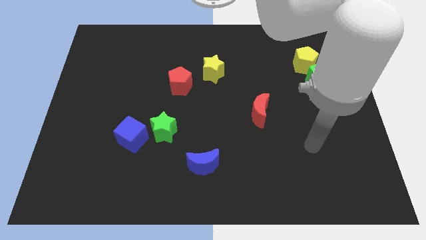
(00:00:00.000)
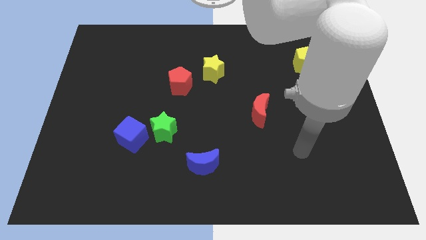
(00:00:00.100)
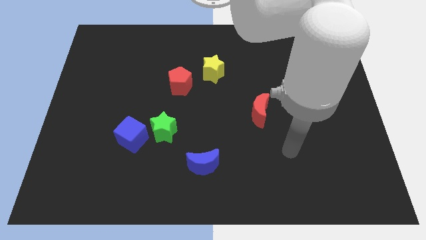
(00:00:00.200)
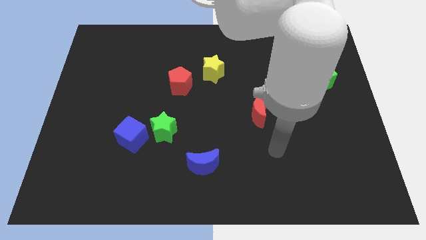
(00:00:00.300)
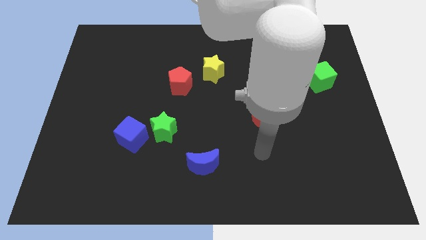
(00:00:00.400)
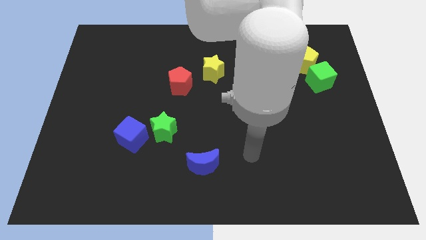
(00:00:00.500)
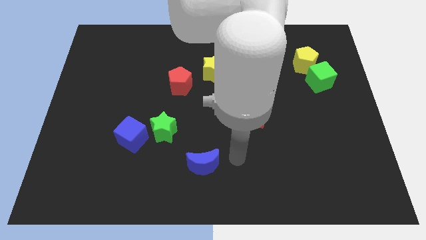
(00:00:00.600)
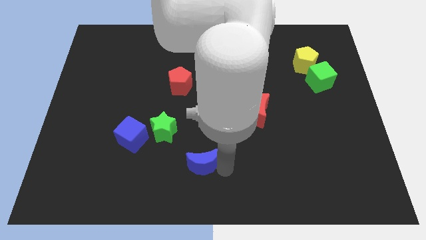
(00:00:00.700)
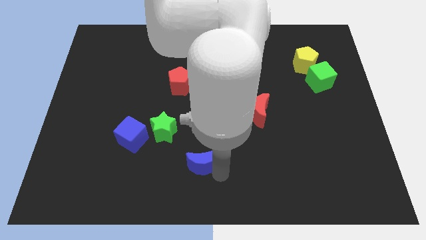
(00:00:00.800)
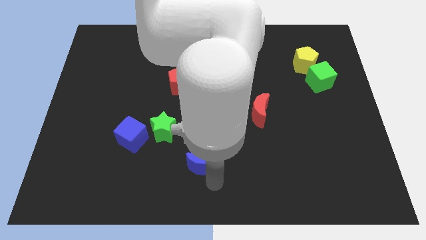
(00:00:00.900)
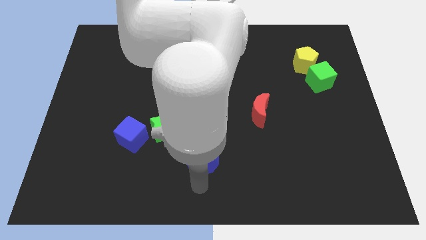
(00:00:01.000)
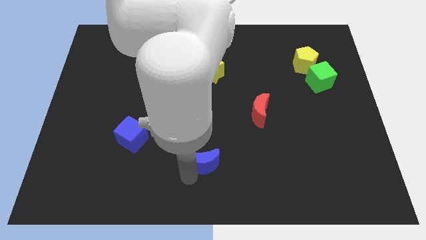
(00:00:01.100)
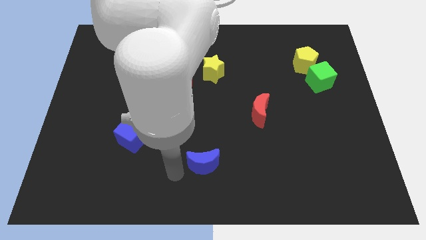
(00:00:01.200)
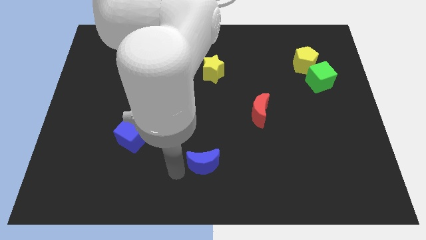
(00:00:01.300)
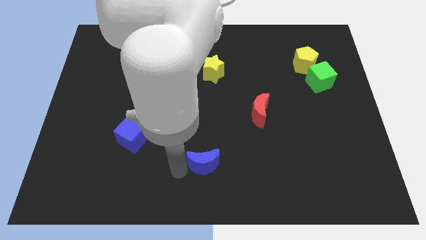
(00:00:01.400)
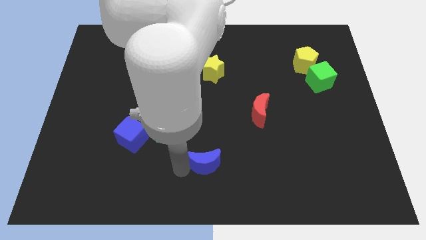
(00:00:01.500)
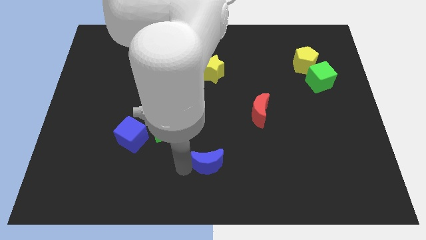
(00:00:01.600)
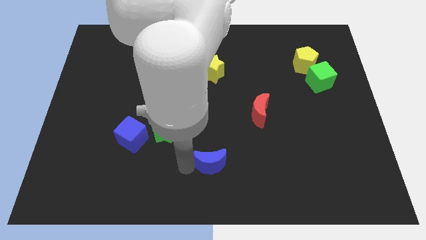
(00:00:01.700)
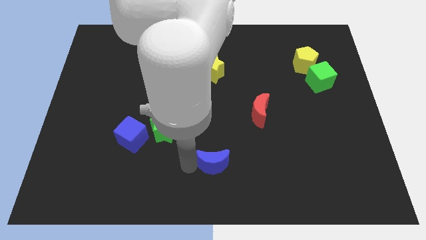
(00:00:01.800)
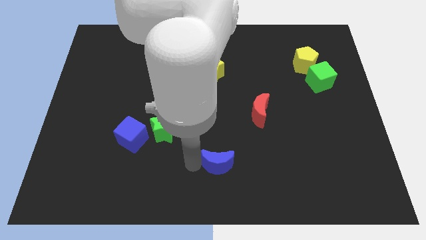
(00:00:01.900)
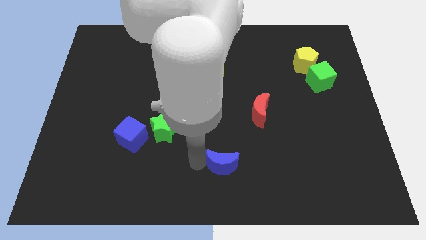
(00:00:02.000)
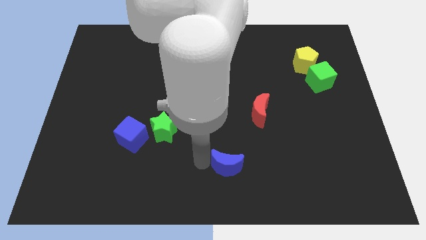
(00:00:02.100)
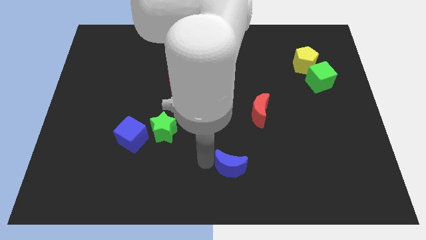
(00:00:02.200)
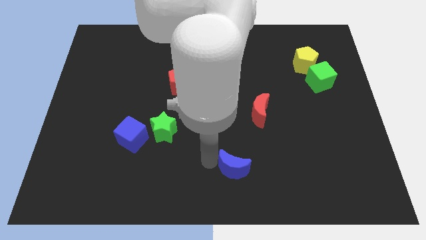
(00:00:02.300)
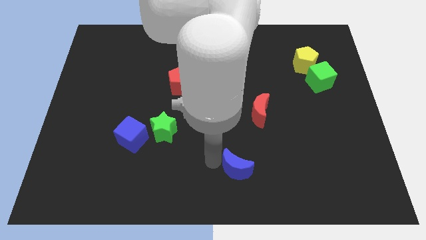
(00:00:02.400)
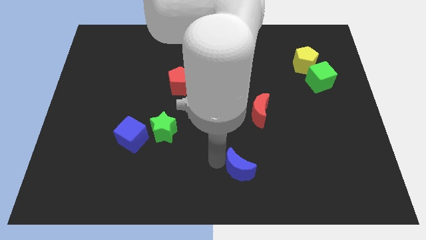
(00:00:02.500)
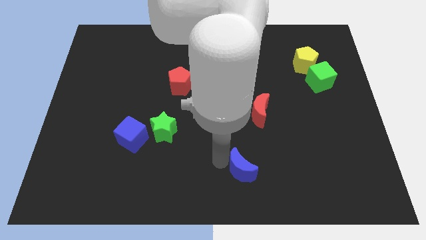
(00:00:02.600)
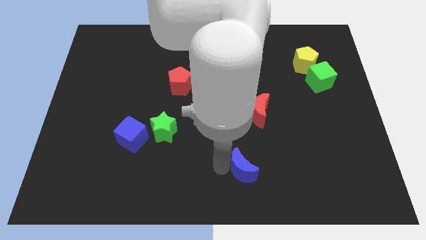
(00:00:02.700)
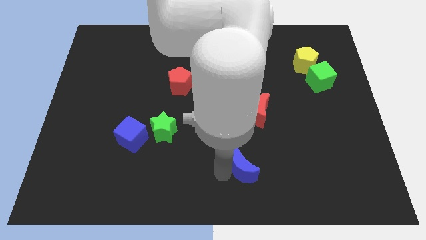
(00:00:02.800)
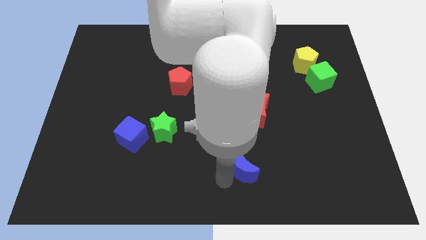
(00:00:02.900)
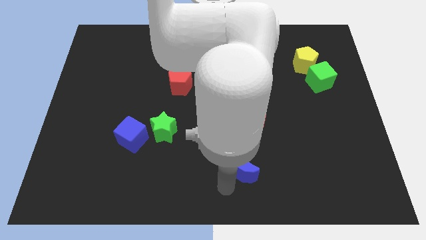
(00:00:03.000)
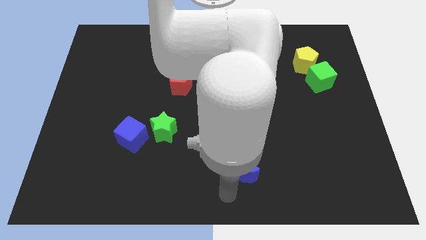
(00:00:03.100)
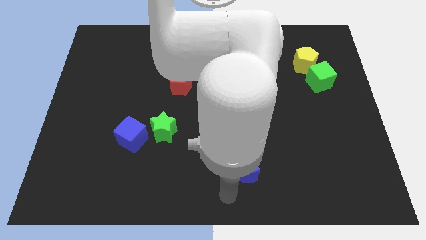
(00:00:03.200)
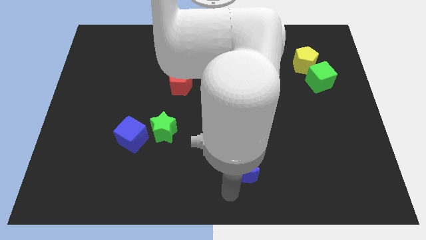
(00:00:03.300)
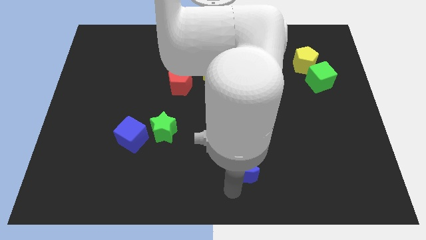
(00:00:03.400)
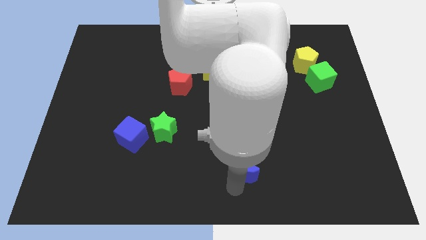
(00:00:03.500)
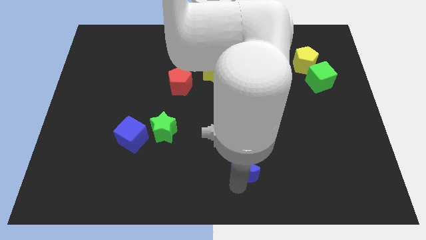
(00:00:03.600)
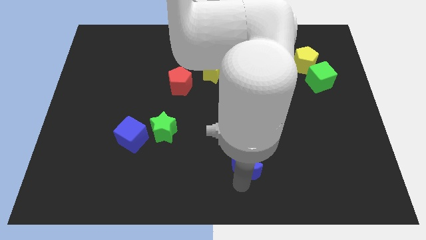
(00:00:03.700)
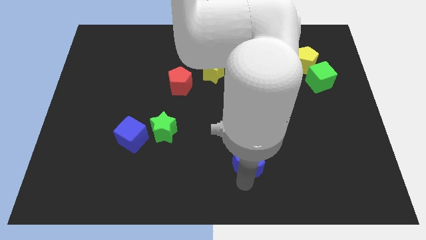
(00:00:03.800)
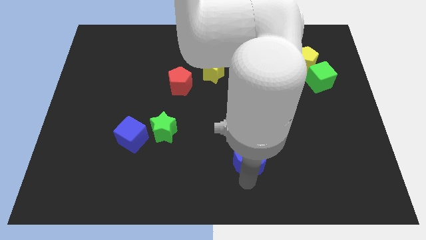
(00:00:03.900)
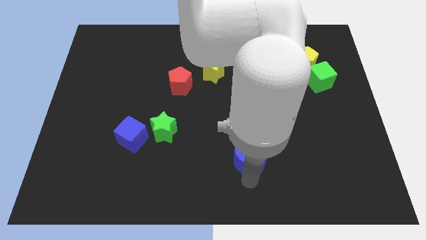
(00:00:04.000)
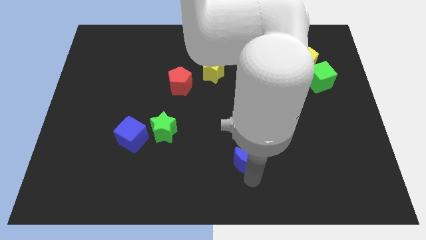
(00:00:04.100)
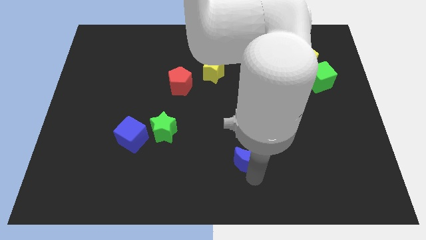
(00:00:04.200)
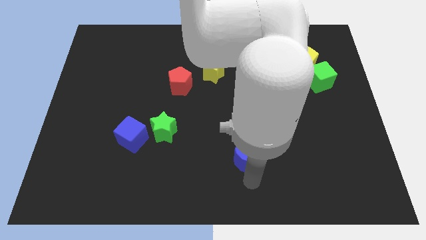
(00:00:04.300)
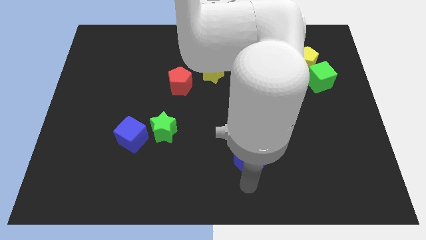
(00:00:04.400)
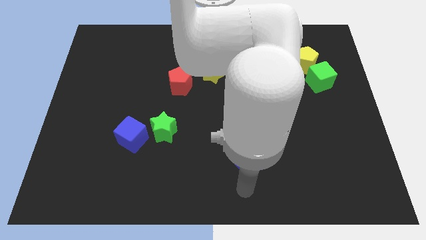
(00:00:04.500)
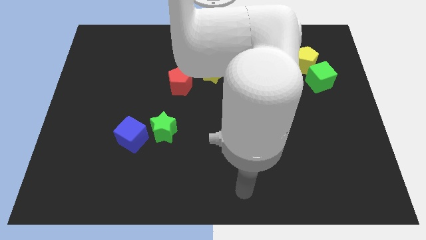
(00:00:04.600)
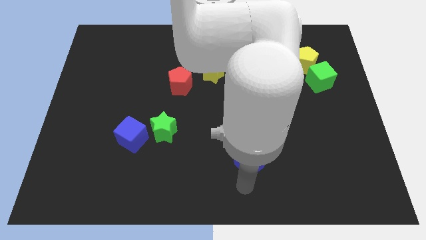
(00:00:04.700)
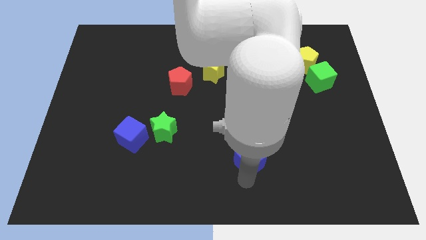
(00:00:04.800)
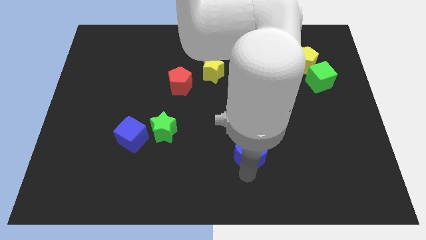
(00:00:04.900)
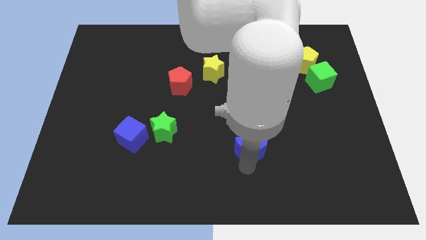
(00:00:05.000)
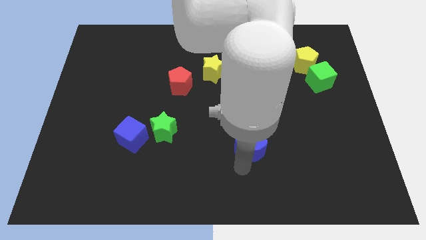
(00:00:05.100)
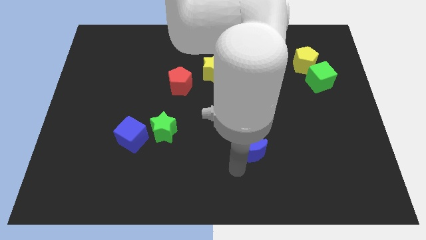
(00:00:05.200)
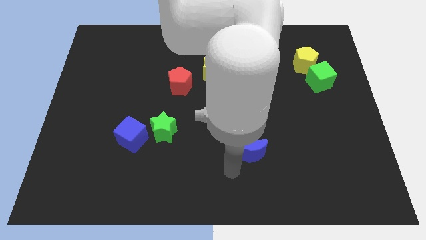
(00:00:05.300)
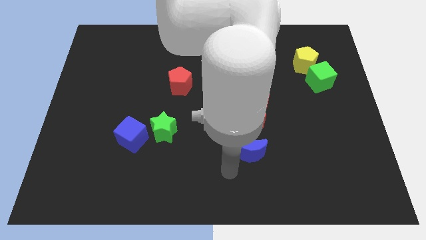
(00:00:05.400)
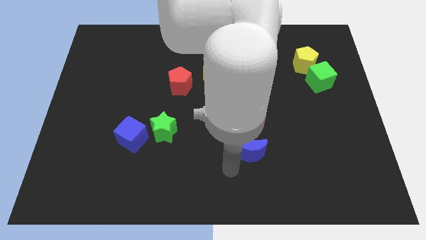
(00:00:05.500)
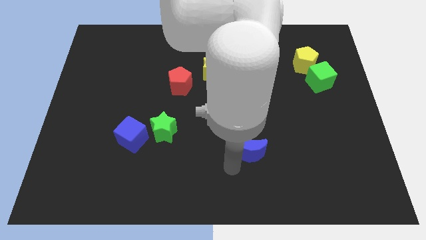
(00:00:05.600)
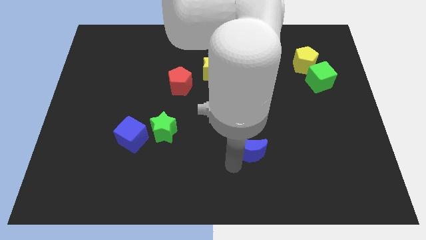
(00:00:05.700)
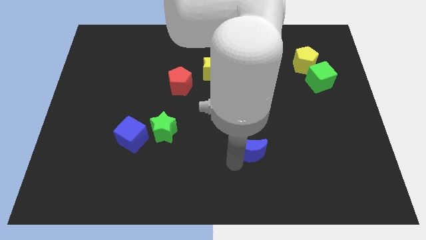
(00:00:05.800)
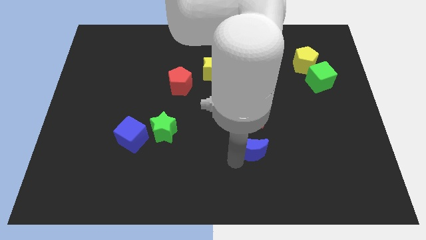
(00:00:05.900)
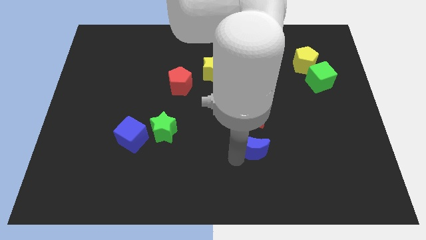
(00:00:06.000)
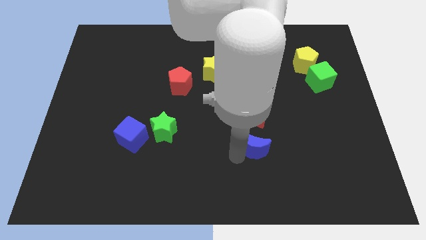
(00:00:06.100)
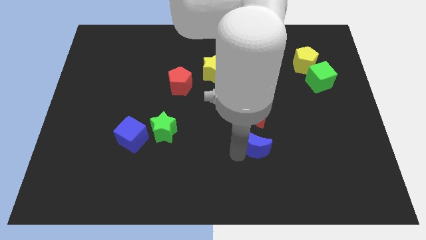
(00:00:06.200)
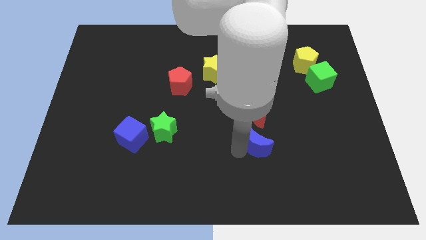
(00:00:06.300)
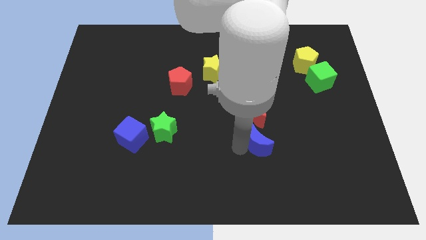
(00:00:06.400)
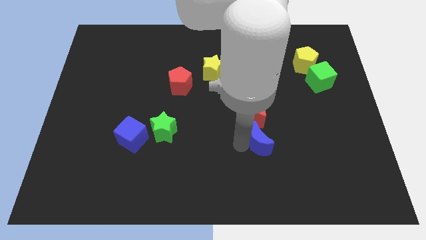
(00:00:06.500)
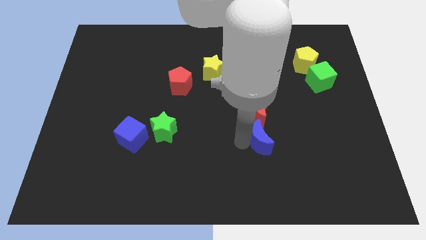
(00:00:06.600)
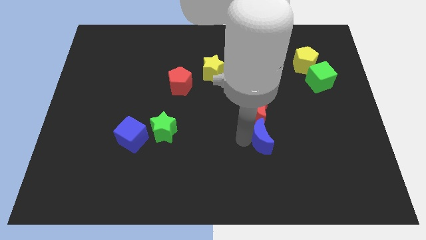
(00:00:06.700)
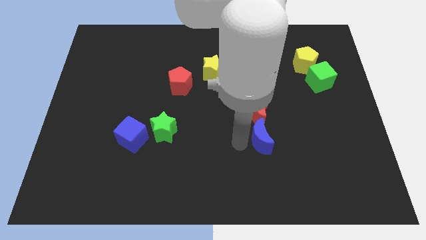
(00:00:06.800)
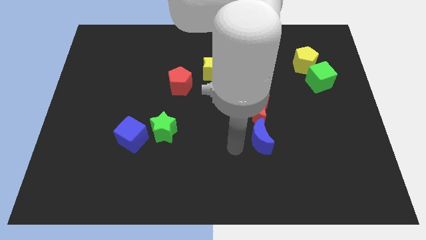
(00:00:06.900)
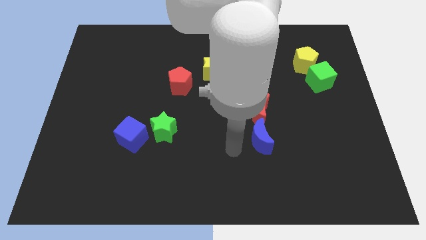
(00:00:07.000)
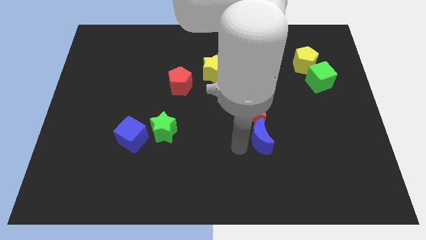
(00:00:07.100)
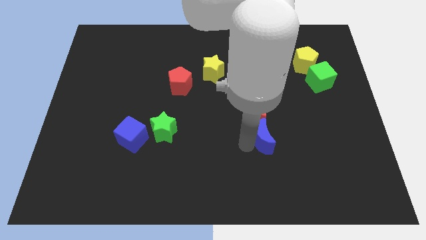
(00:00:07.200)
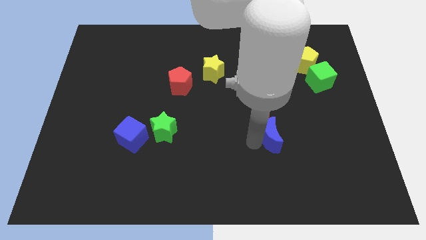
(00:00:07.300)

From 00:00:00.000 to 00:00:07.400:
put the blue moon to the bottom right side of the red moon
